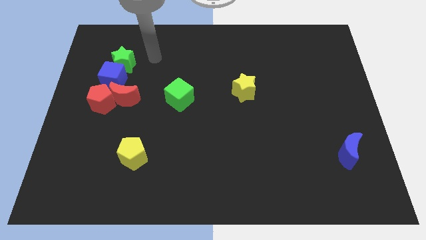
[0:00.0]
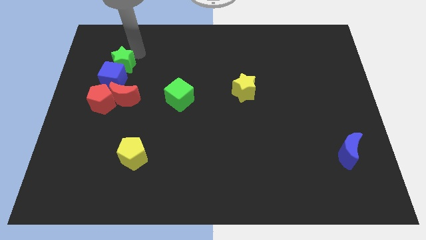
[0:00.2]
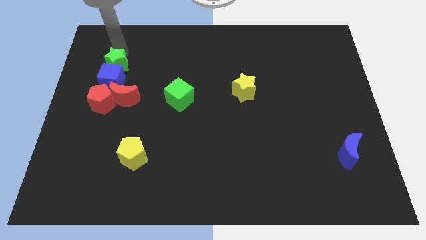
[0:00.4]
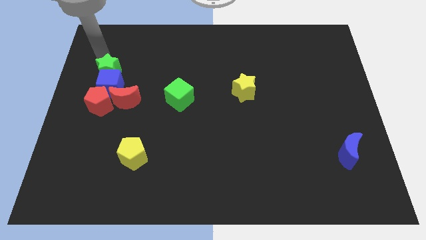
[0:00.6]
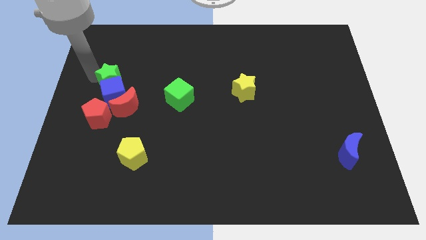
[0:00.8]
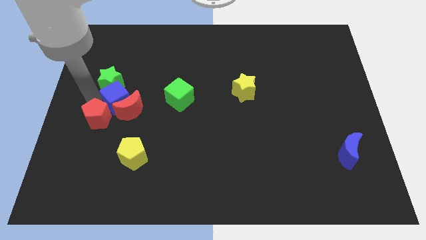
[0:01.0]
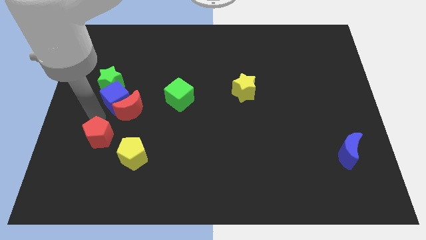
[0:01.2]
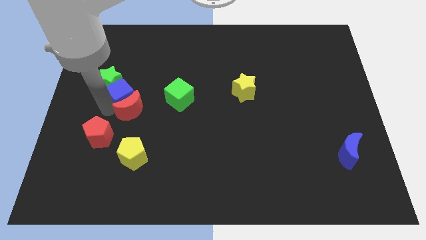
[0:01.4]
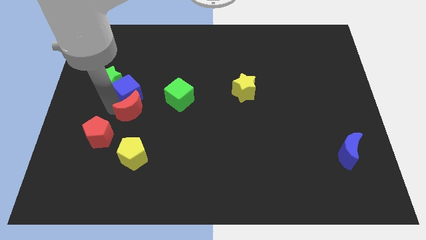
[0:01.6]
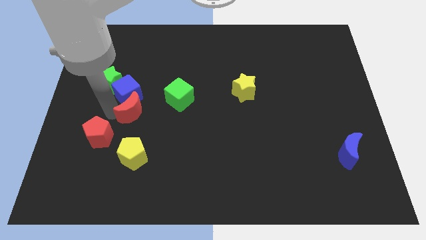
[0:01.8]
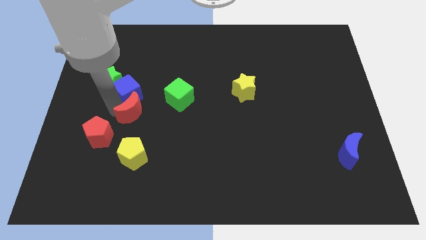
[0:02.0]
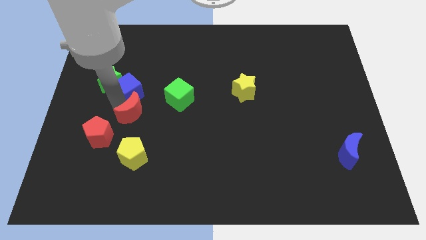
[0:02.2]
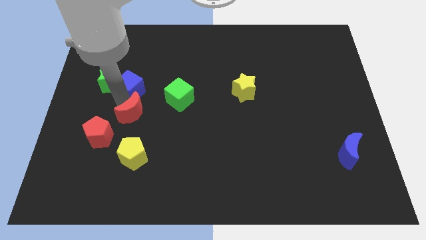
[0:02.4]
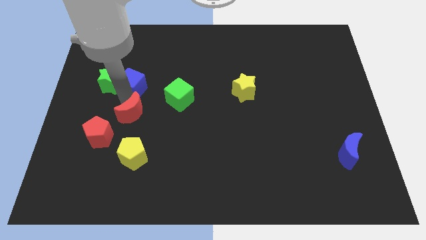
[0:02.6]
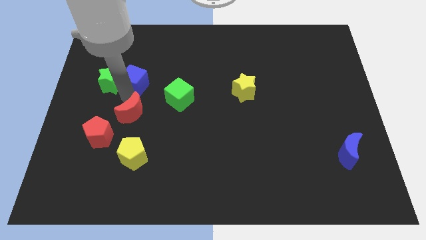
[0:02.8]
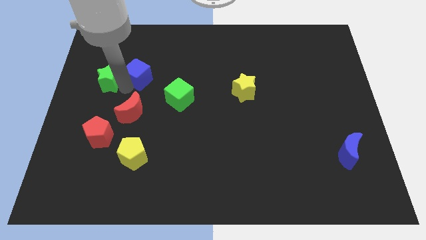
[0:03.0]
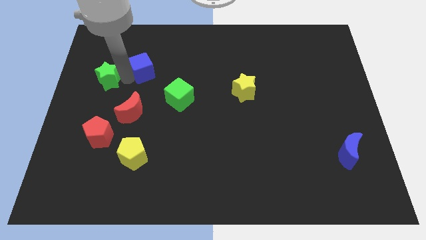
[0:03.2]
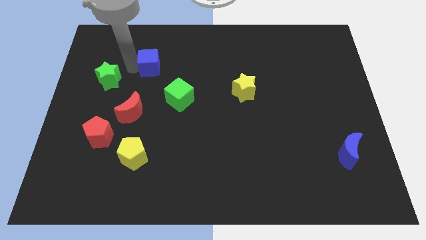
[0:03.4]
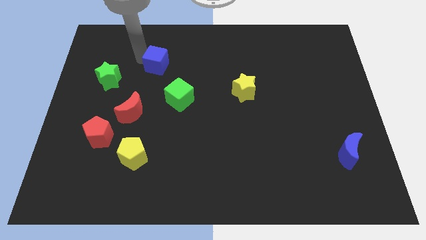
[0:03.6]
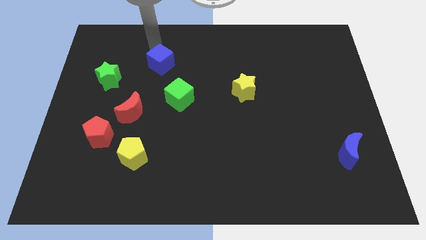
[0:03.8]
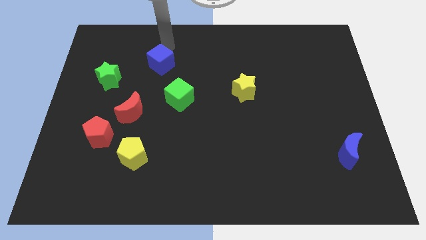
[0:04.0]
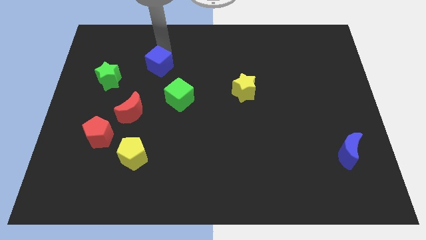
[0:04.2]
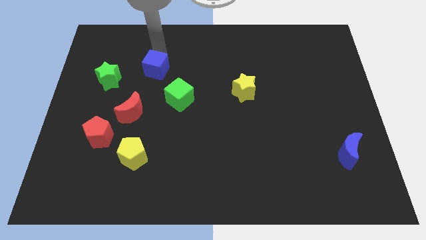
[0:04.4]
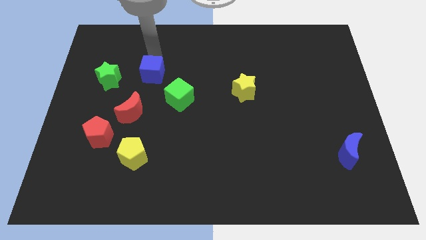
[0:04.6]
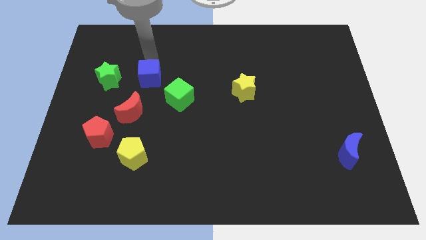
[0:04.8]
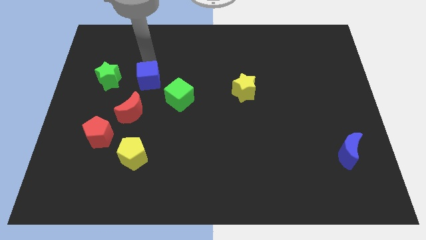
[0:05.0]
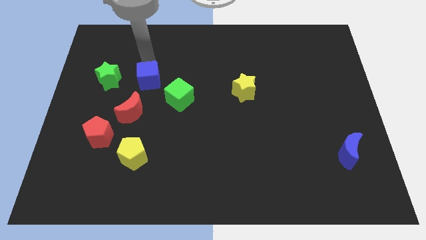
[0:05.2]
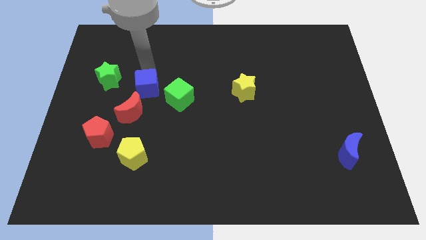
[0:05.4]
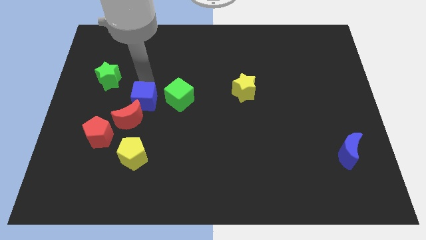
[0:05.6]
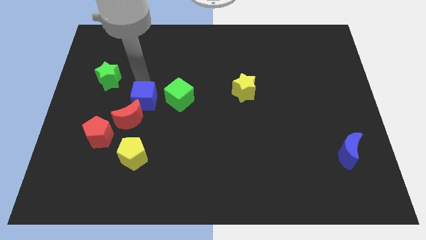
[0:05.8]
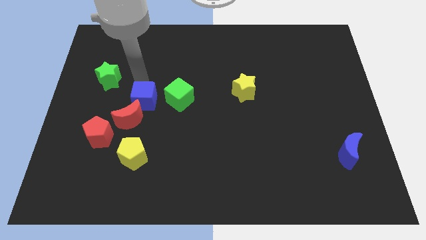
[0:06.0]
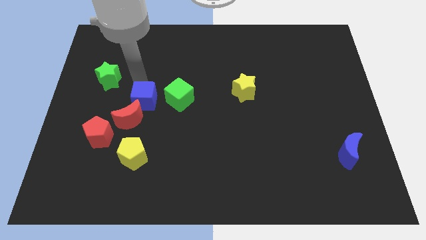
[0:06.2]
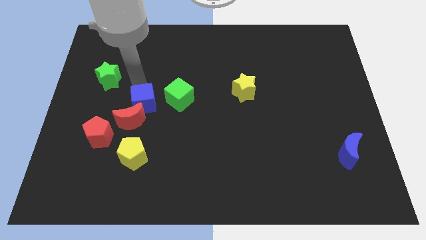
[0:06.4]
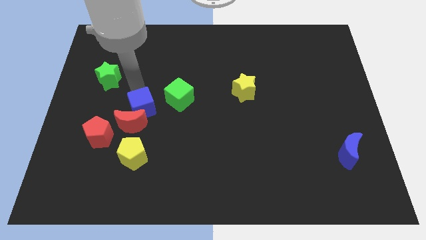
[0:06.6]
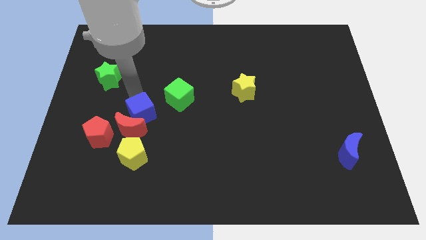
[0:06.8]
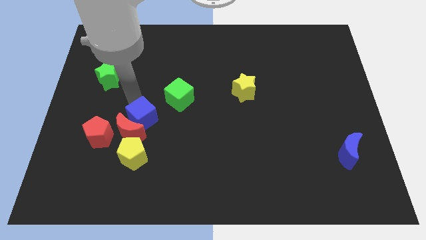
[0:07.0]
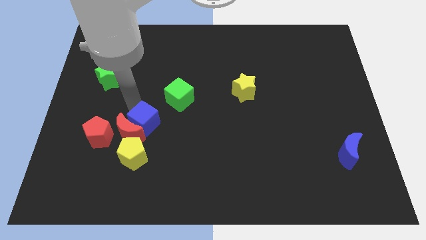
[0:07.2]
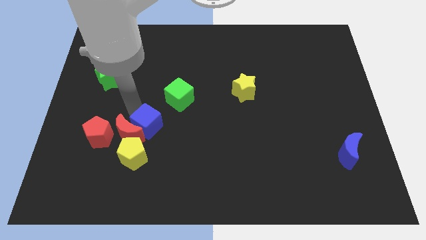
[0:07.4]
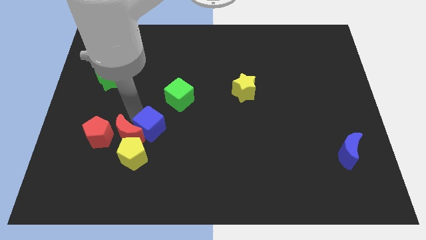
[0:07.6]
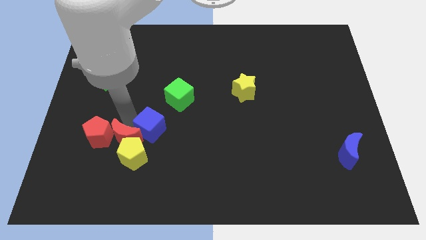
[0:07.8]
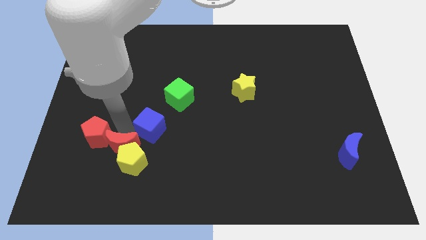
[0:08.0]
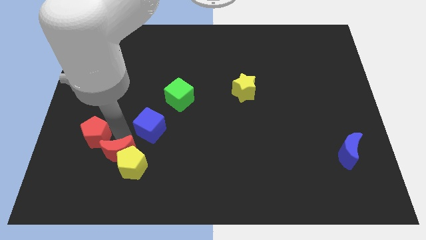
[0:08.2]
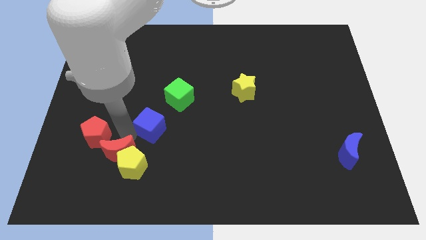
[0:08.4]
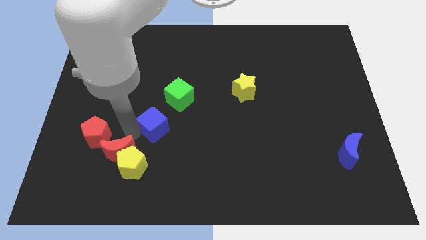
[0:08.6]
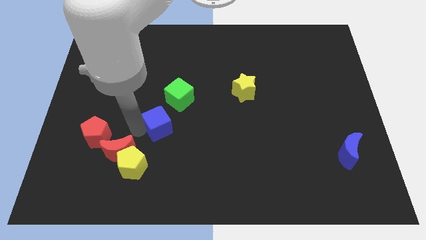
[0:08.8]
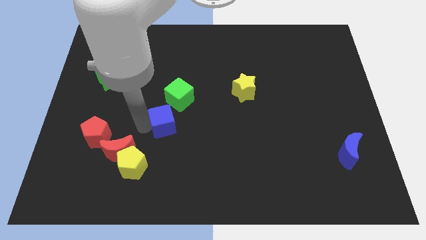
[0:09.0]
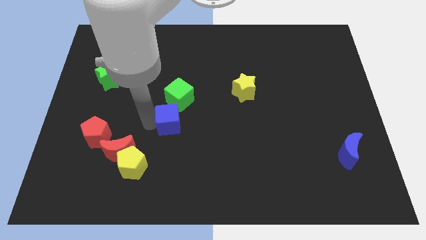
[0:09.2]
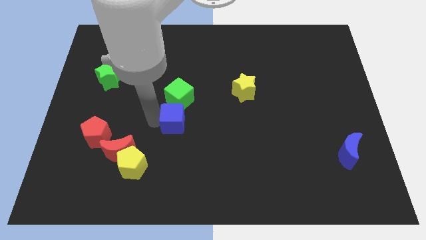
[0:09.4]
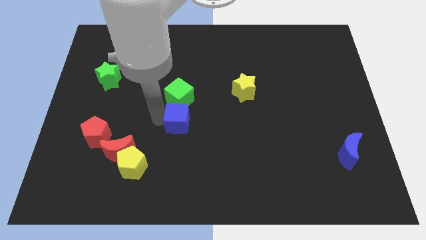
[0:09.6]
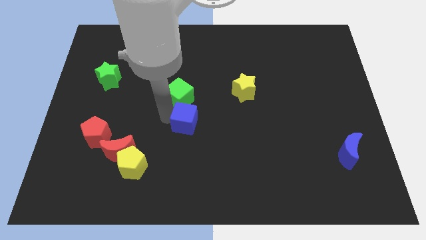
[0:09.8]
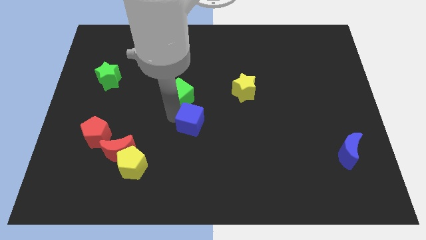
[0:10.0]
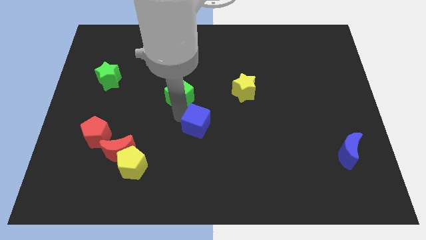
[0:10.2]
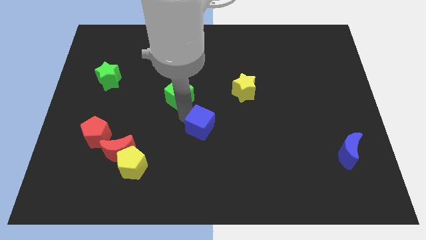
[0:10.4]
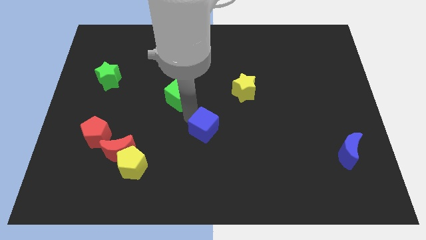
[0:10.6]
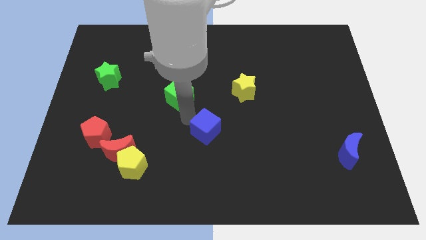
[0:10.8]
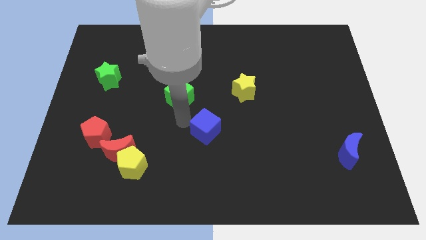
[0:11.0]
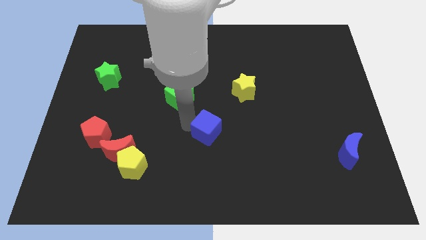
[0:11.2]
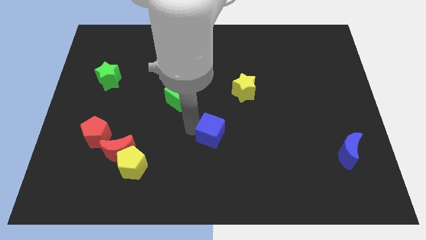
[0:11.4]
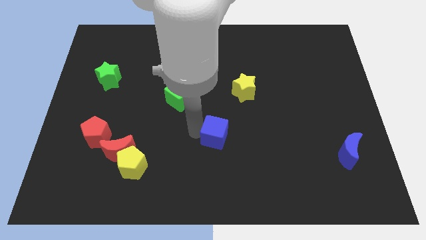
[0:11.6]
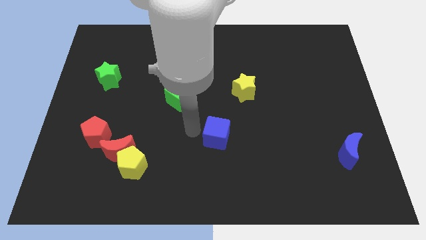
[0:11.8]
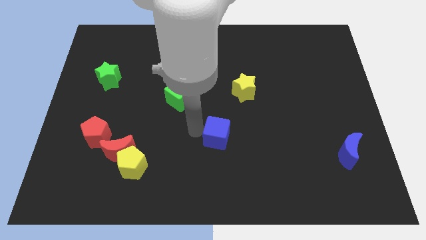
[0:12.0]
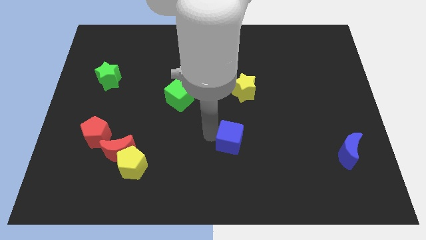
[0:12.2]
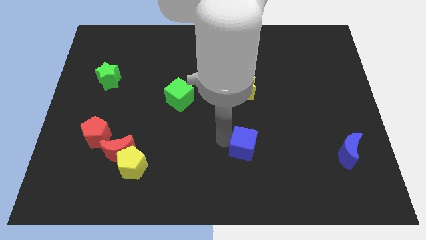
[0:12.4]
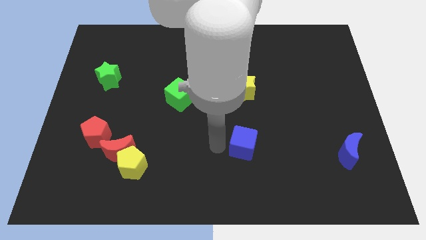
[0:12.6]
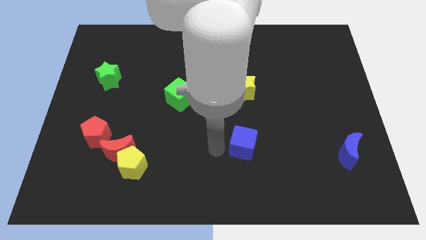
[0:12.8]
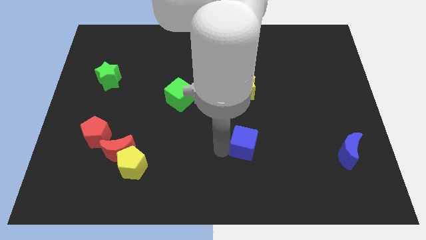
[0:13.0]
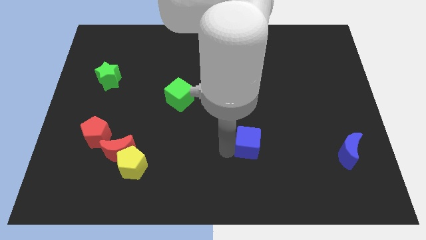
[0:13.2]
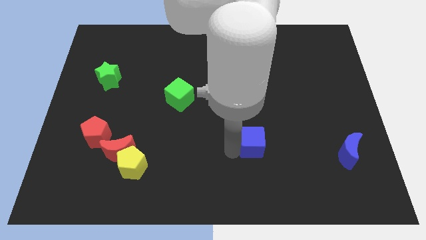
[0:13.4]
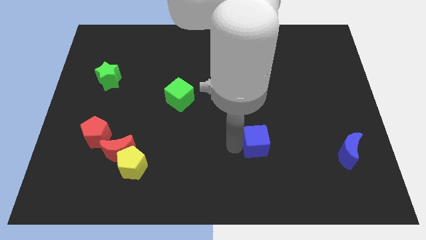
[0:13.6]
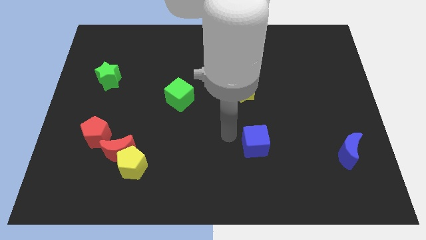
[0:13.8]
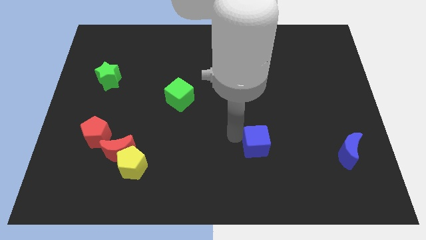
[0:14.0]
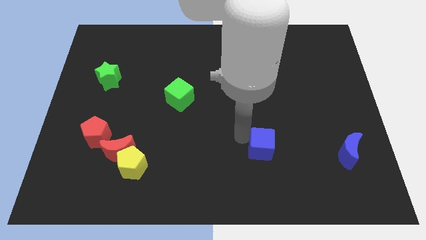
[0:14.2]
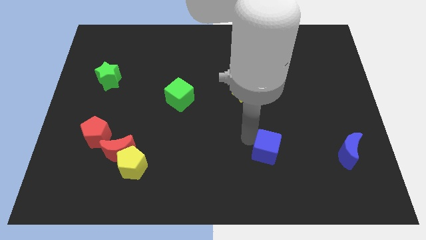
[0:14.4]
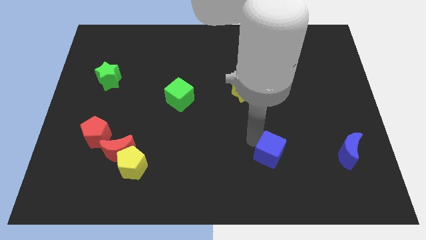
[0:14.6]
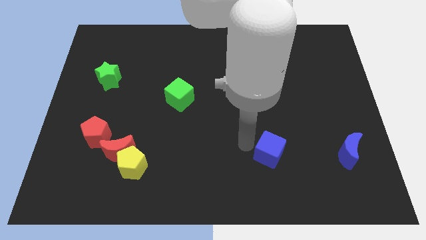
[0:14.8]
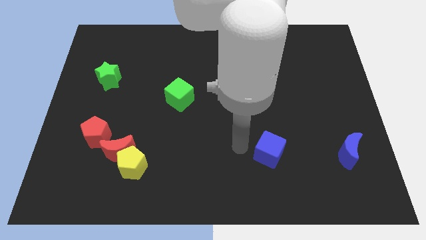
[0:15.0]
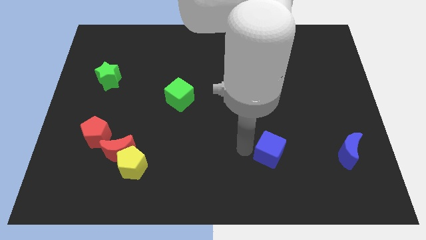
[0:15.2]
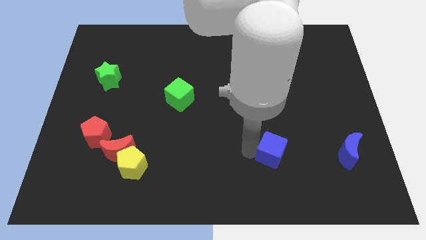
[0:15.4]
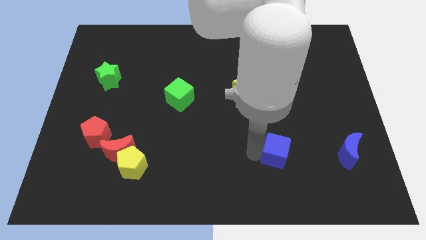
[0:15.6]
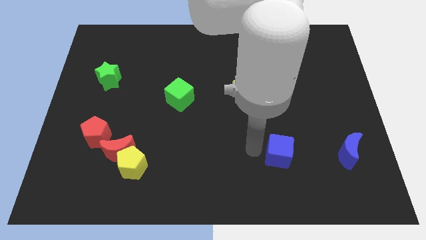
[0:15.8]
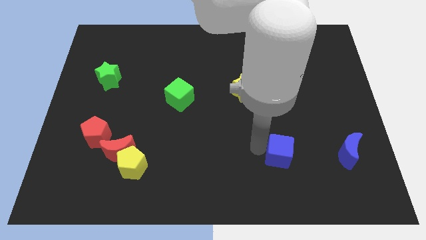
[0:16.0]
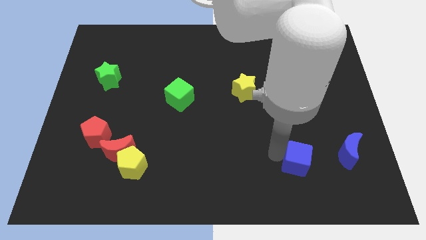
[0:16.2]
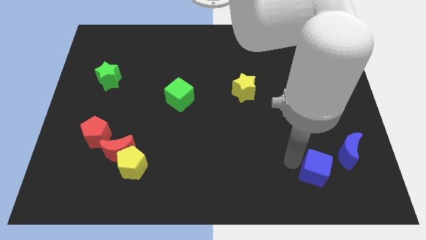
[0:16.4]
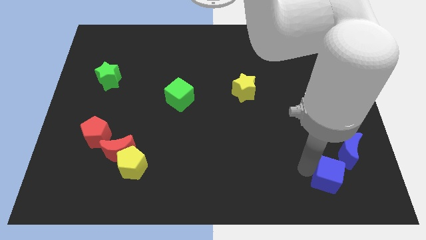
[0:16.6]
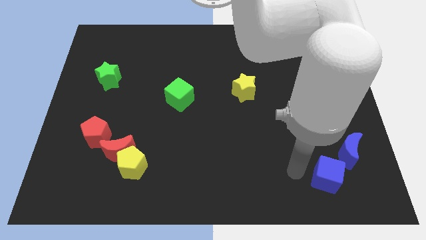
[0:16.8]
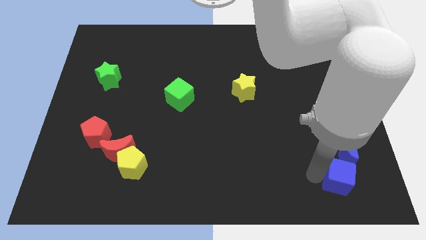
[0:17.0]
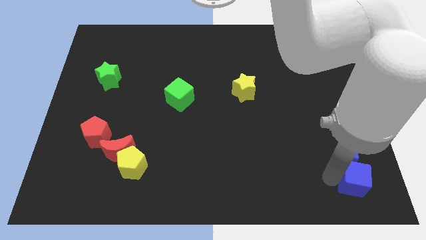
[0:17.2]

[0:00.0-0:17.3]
push the blue cube to the bottom right of the board
